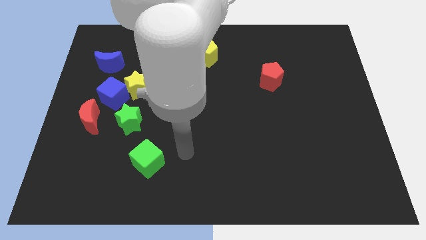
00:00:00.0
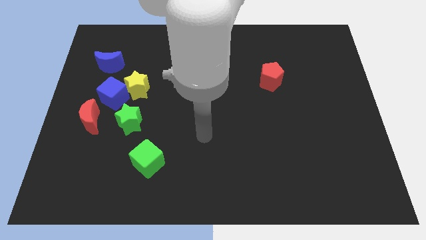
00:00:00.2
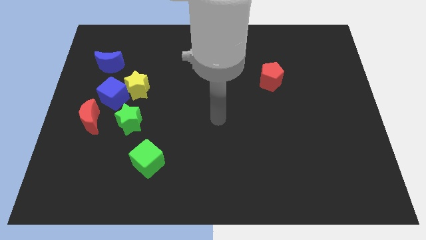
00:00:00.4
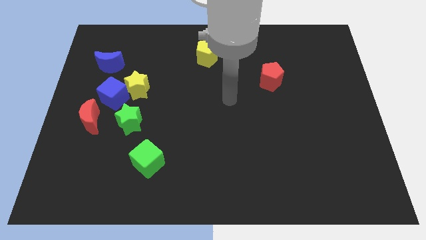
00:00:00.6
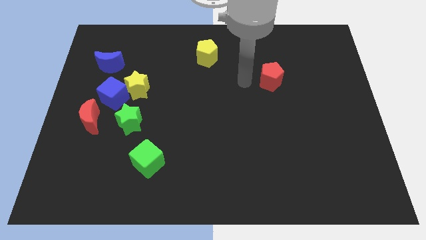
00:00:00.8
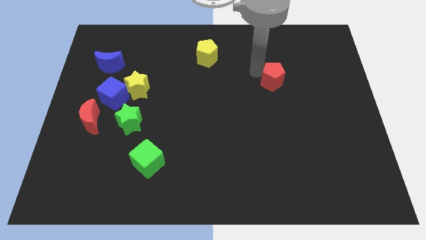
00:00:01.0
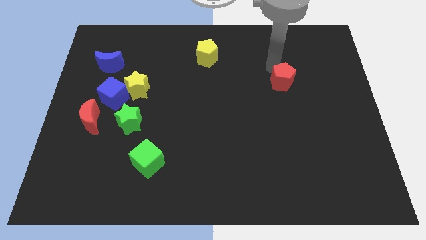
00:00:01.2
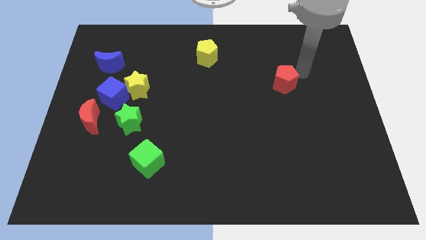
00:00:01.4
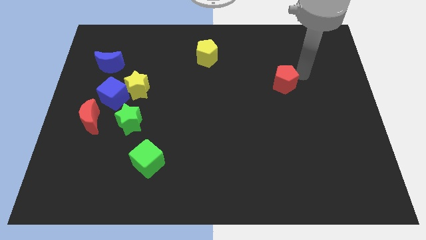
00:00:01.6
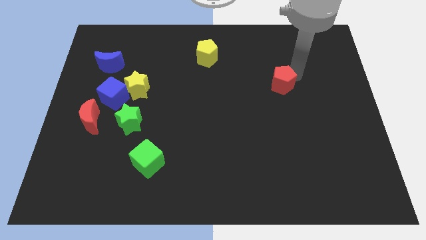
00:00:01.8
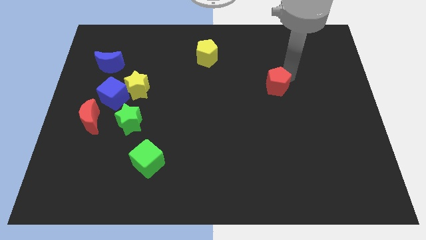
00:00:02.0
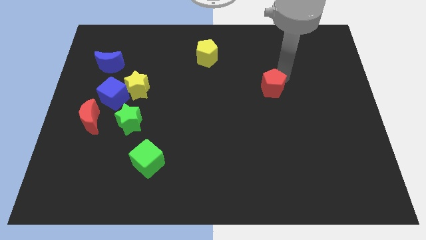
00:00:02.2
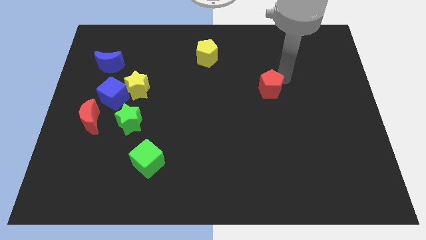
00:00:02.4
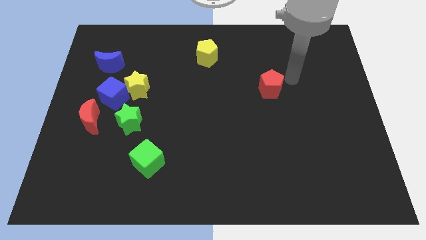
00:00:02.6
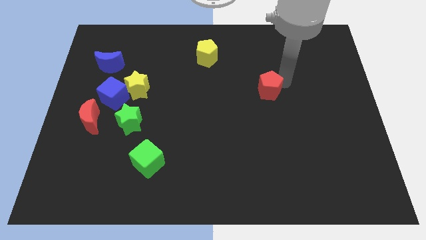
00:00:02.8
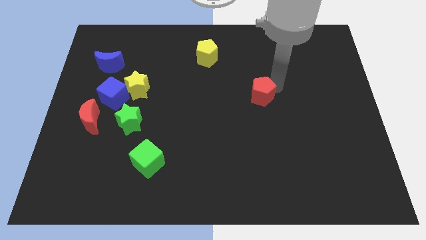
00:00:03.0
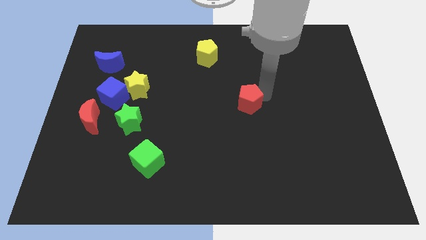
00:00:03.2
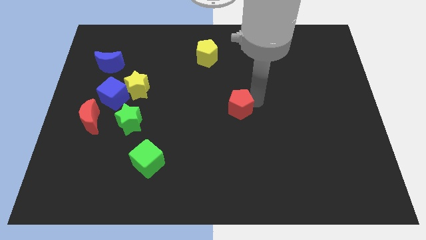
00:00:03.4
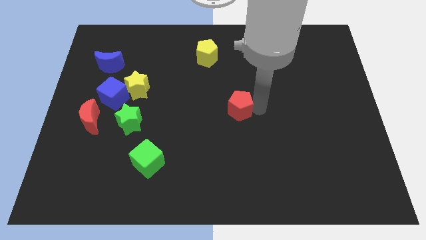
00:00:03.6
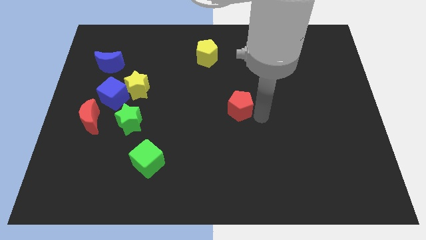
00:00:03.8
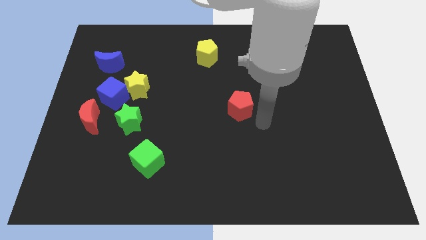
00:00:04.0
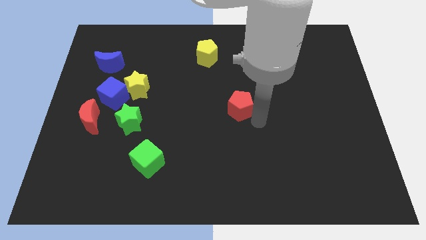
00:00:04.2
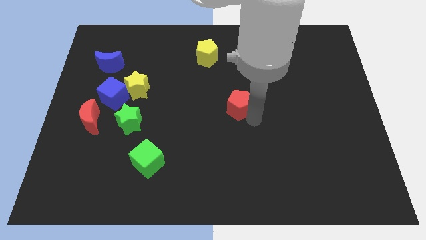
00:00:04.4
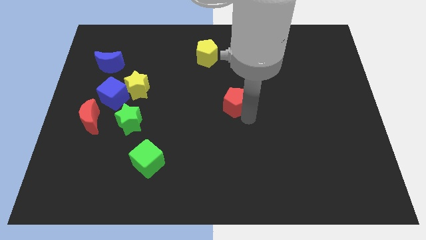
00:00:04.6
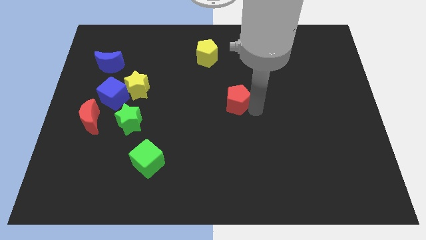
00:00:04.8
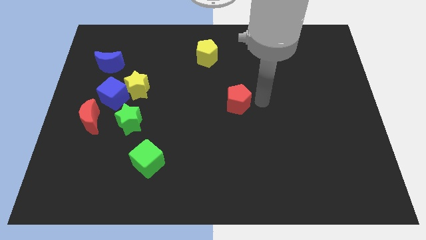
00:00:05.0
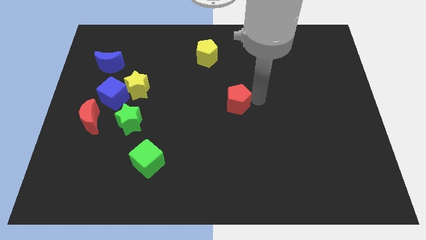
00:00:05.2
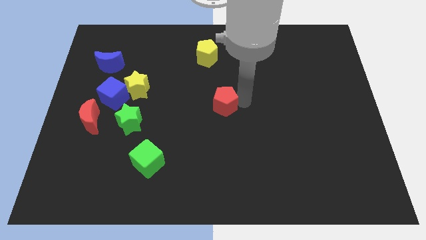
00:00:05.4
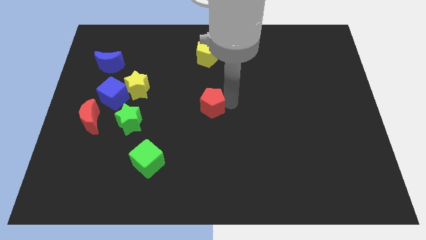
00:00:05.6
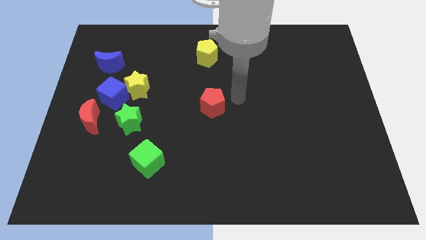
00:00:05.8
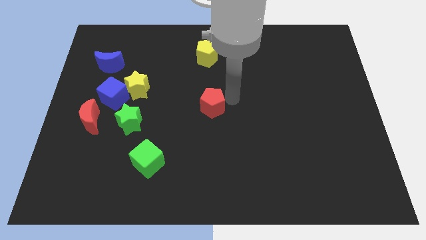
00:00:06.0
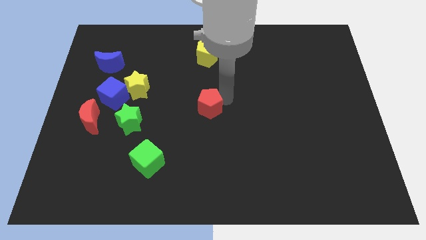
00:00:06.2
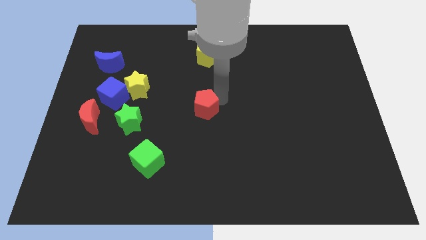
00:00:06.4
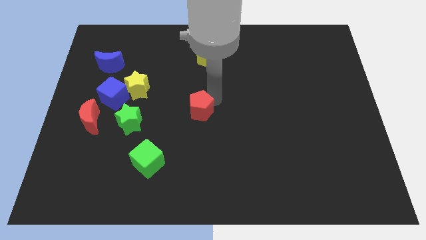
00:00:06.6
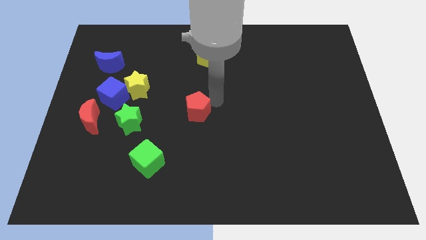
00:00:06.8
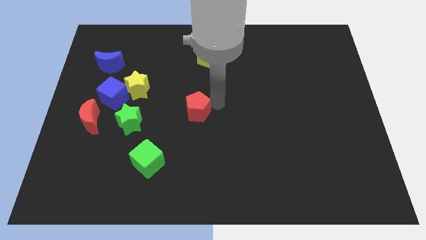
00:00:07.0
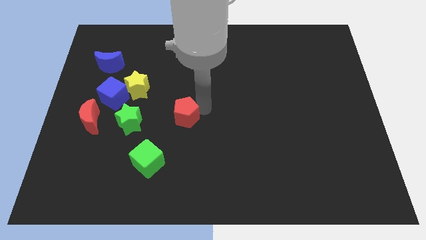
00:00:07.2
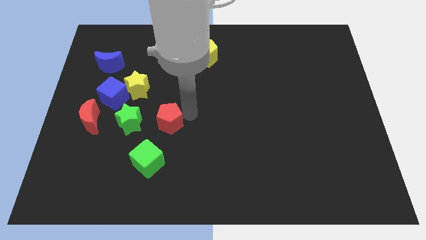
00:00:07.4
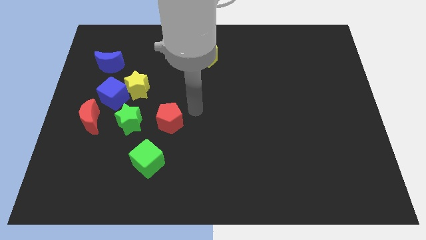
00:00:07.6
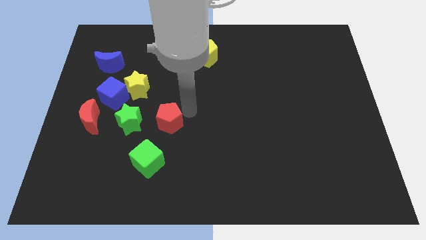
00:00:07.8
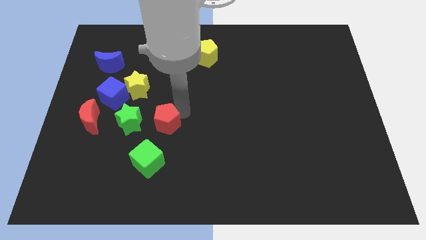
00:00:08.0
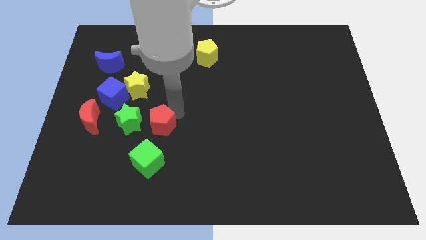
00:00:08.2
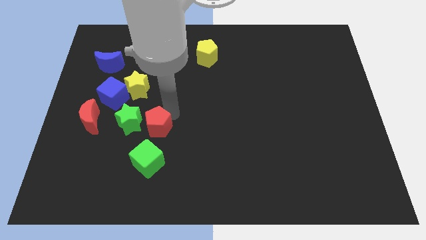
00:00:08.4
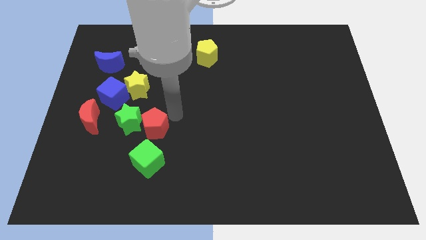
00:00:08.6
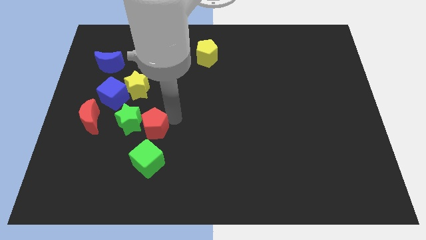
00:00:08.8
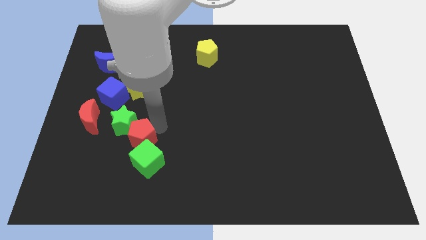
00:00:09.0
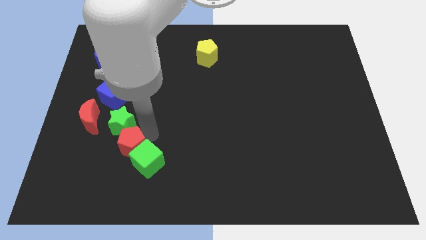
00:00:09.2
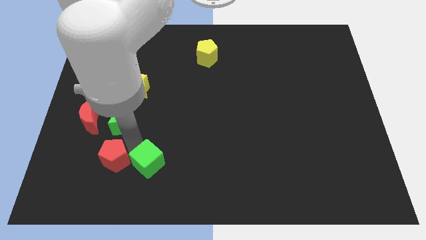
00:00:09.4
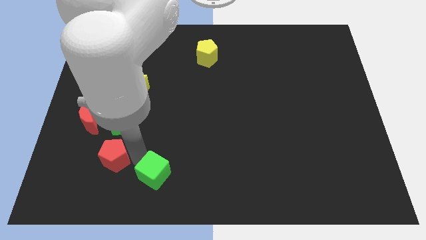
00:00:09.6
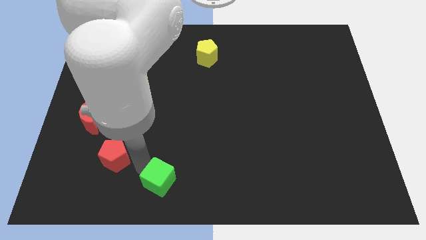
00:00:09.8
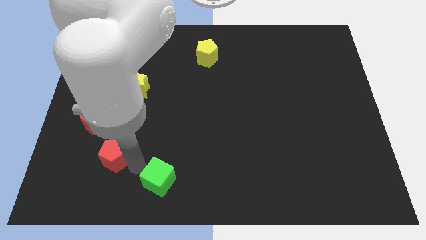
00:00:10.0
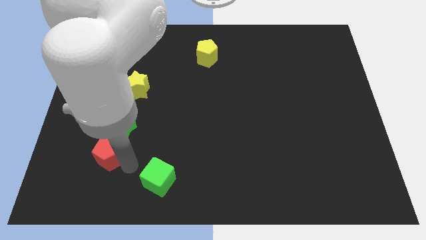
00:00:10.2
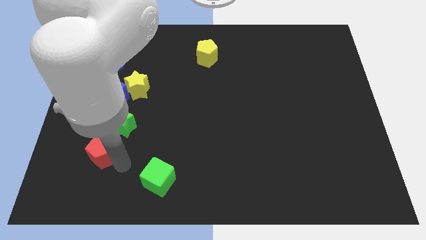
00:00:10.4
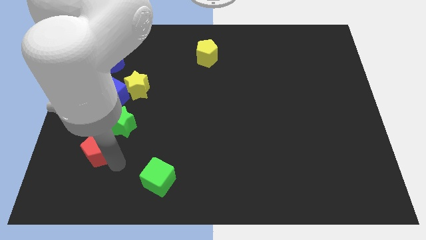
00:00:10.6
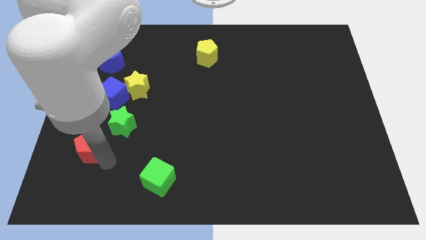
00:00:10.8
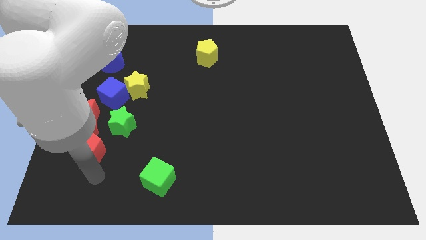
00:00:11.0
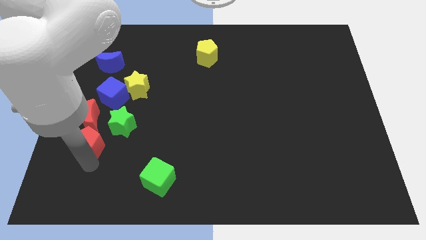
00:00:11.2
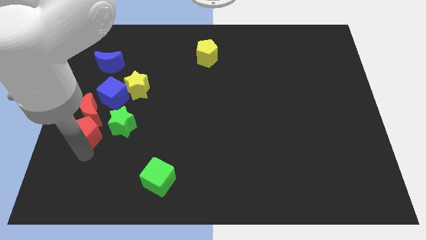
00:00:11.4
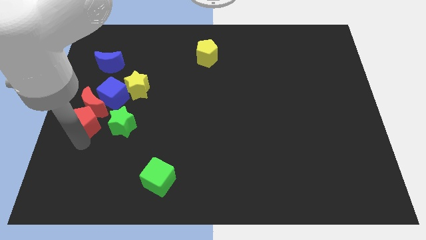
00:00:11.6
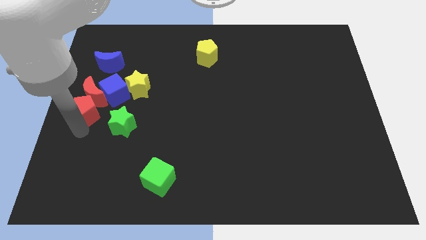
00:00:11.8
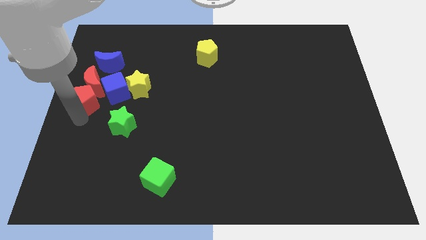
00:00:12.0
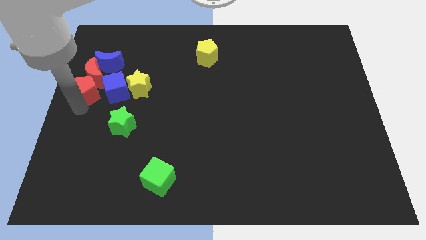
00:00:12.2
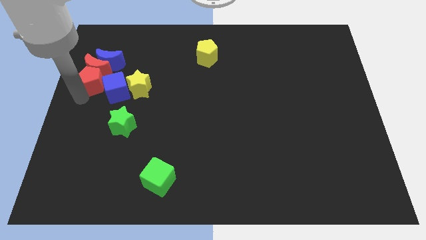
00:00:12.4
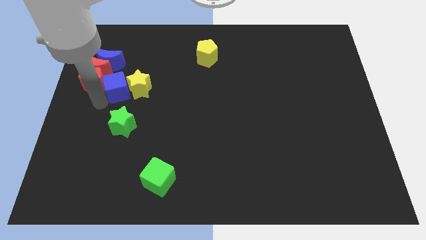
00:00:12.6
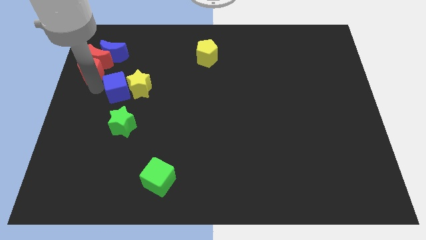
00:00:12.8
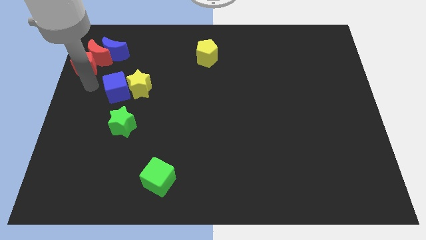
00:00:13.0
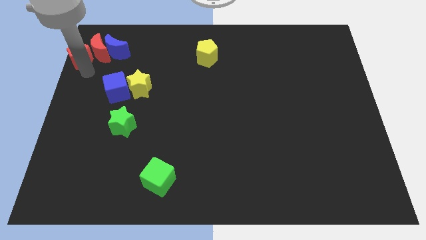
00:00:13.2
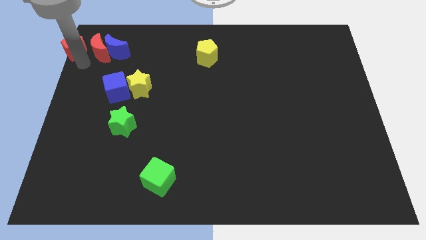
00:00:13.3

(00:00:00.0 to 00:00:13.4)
put the red pentagon to the top left of the board
